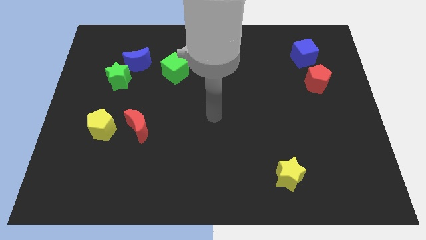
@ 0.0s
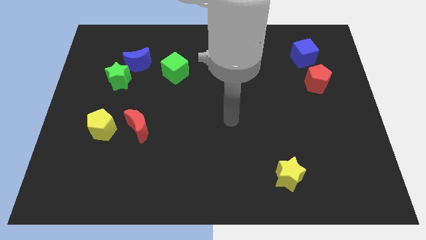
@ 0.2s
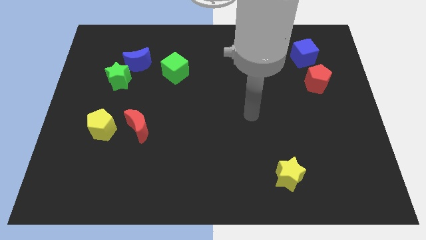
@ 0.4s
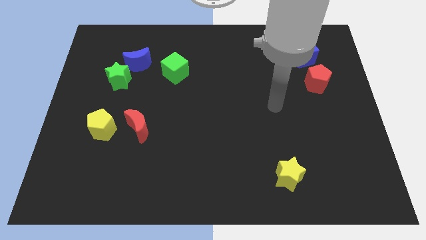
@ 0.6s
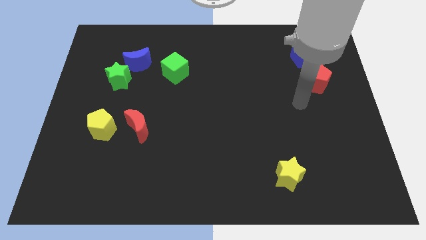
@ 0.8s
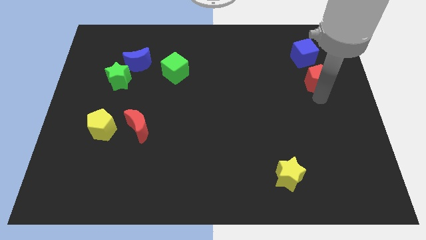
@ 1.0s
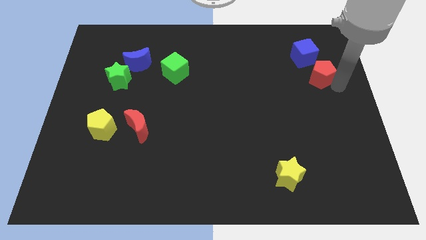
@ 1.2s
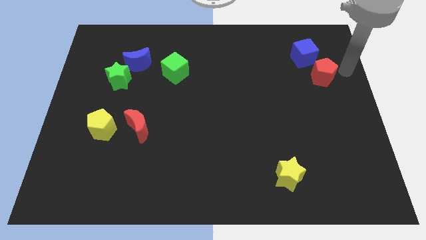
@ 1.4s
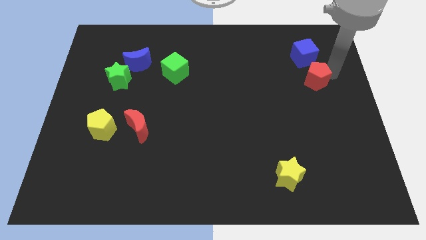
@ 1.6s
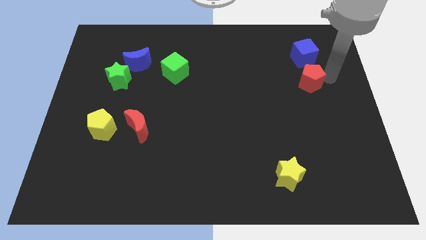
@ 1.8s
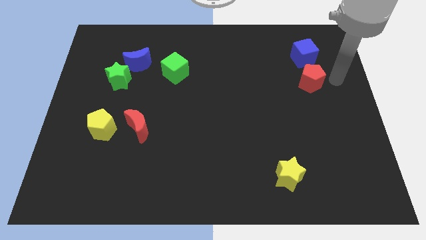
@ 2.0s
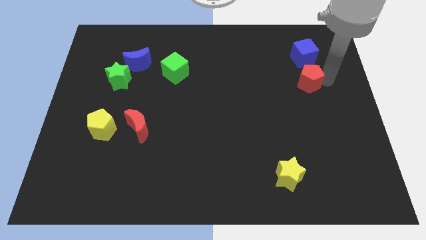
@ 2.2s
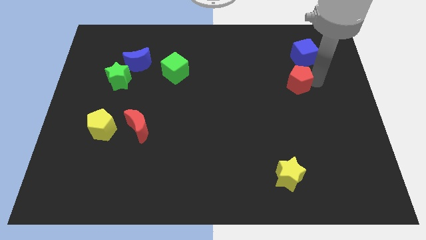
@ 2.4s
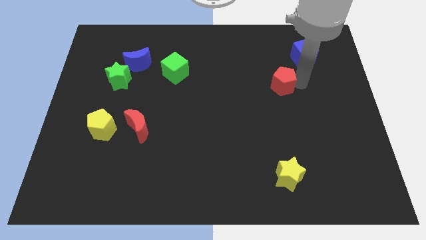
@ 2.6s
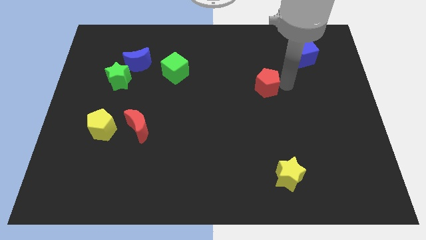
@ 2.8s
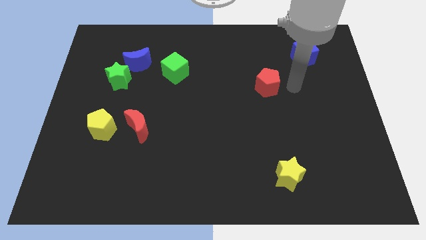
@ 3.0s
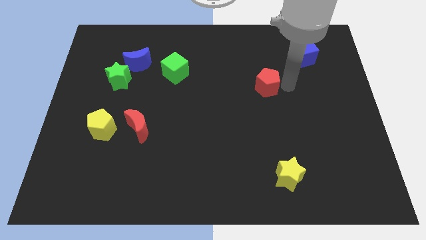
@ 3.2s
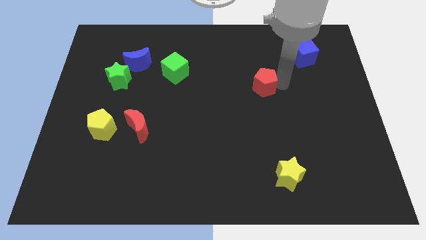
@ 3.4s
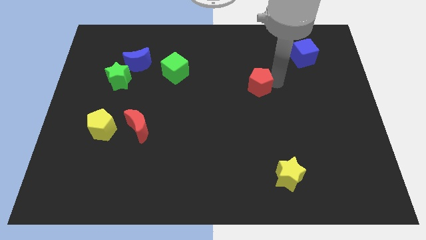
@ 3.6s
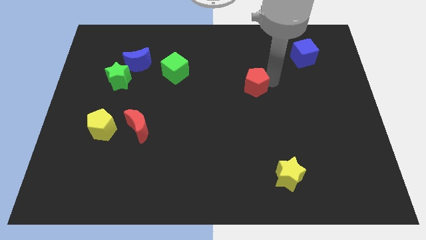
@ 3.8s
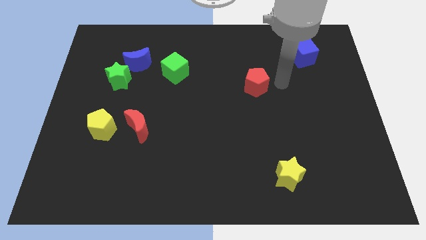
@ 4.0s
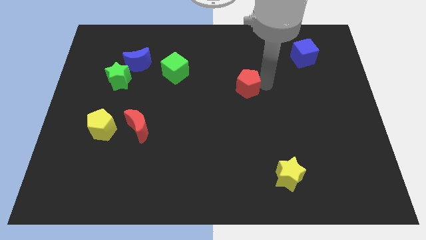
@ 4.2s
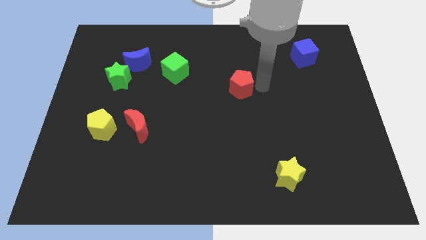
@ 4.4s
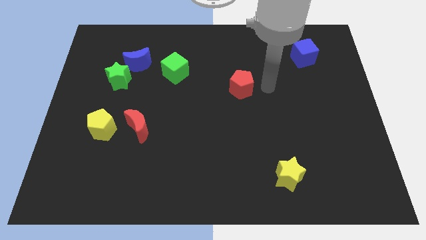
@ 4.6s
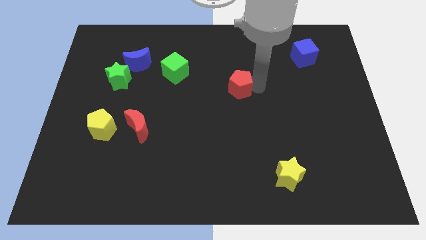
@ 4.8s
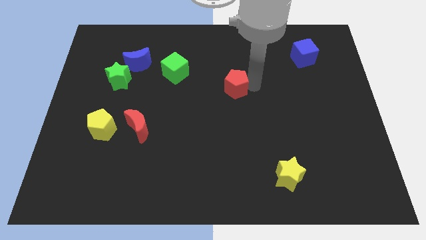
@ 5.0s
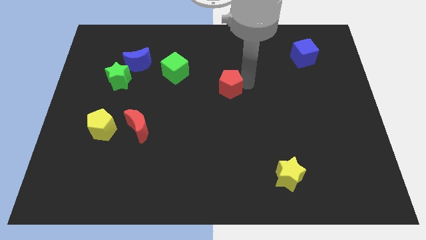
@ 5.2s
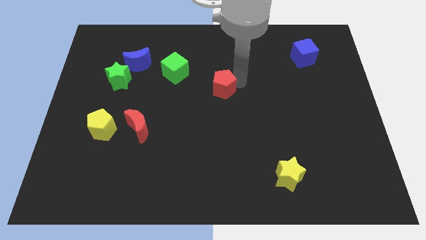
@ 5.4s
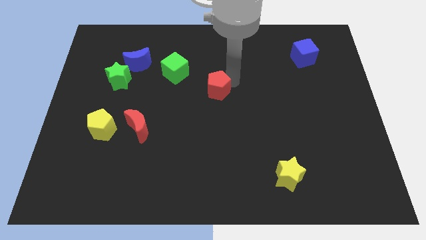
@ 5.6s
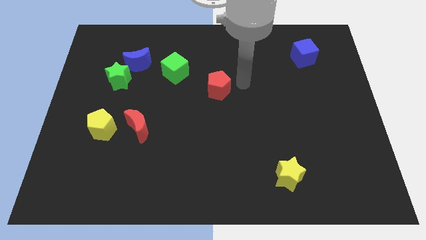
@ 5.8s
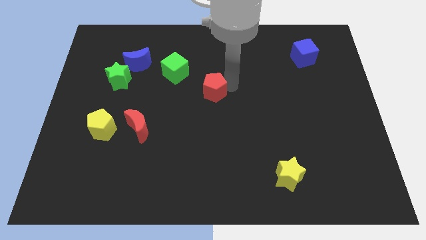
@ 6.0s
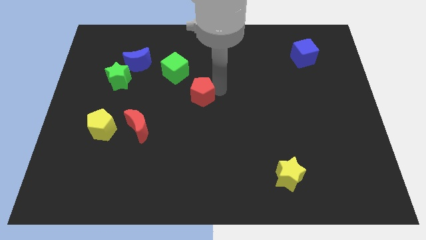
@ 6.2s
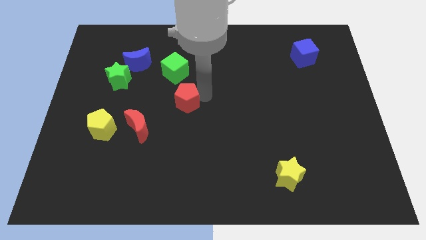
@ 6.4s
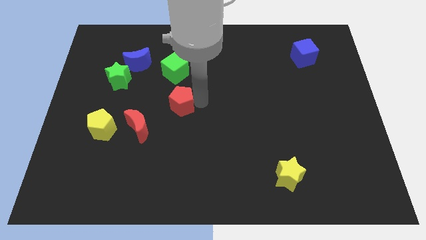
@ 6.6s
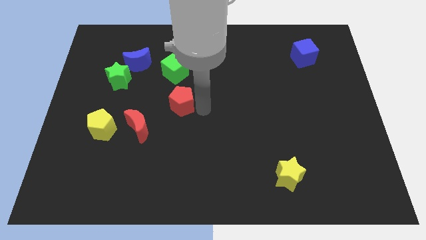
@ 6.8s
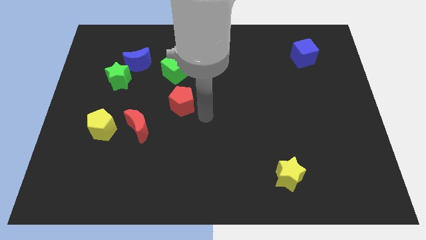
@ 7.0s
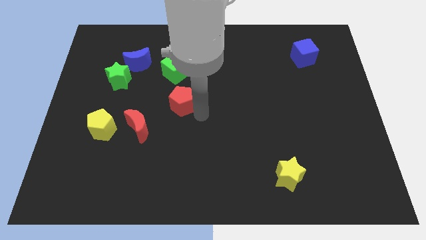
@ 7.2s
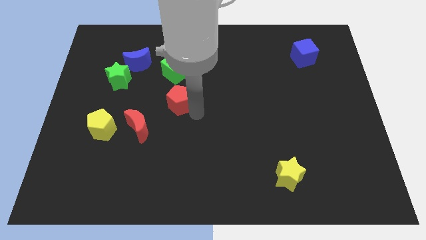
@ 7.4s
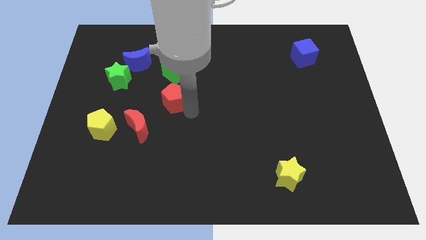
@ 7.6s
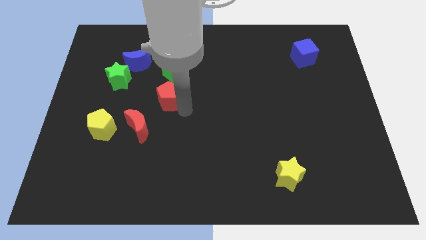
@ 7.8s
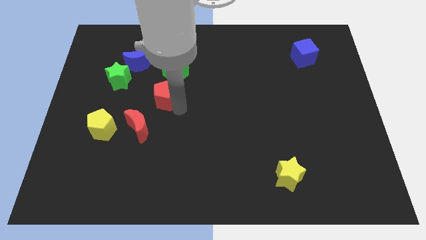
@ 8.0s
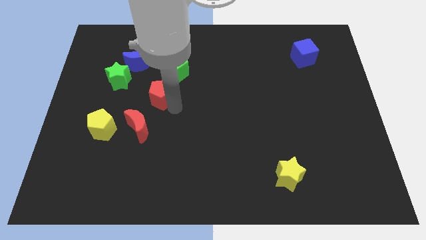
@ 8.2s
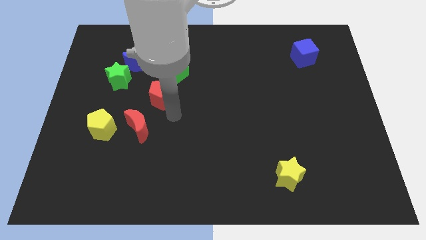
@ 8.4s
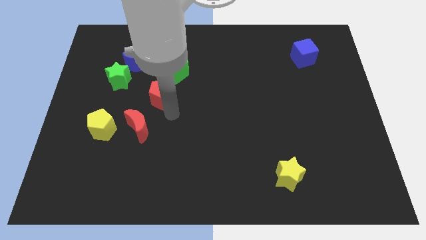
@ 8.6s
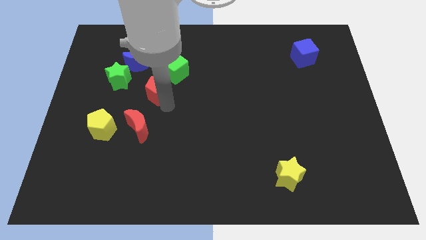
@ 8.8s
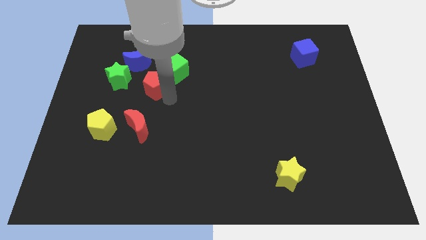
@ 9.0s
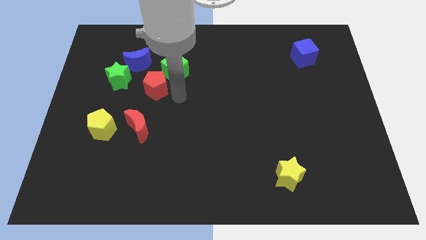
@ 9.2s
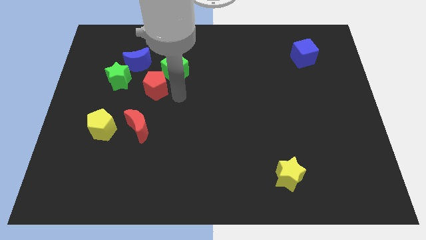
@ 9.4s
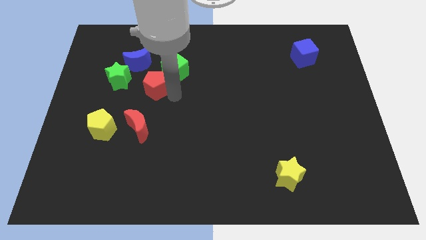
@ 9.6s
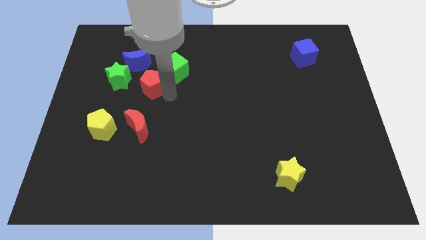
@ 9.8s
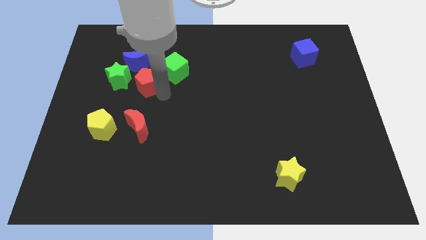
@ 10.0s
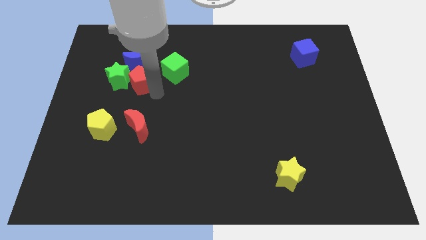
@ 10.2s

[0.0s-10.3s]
push the red pentagon towards the green star

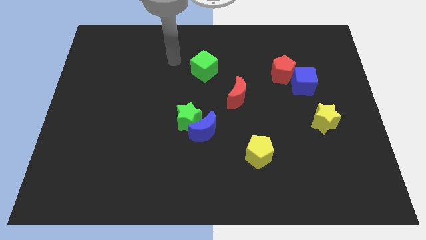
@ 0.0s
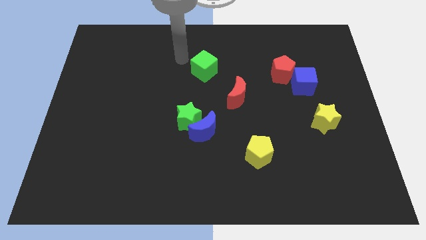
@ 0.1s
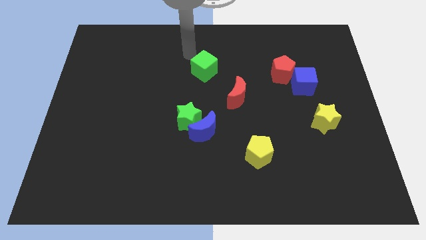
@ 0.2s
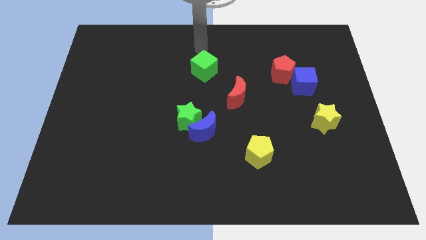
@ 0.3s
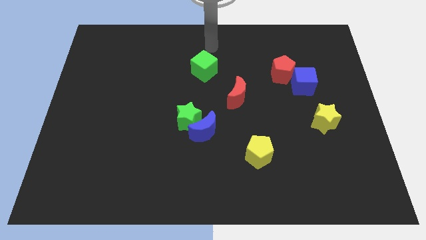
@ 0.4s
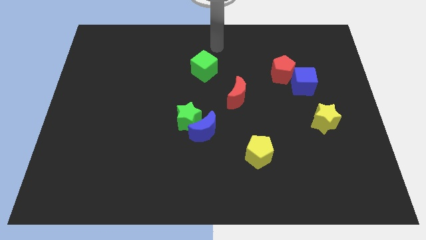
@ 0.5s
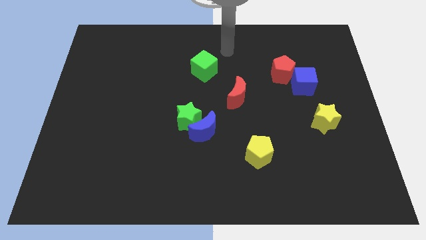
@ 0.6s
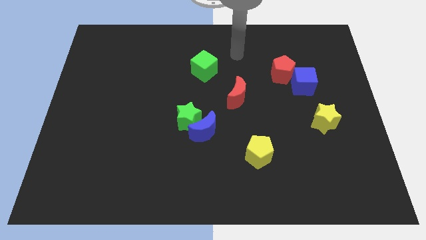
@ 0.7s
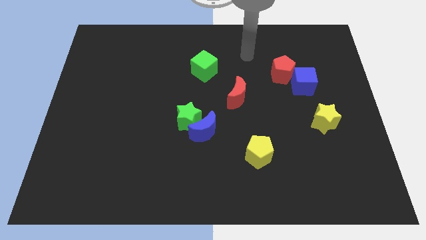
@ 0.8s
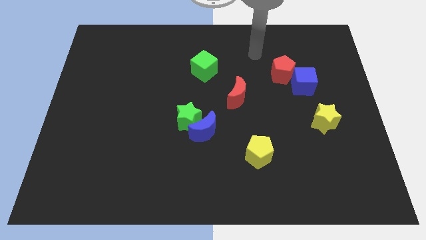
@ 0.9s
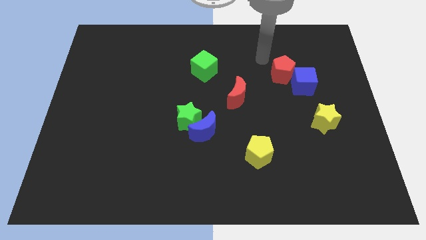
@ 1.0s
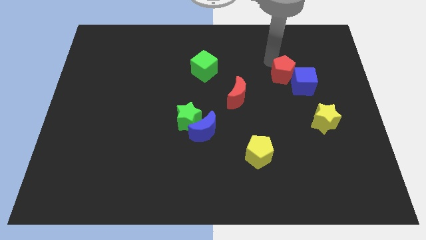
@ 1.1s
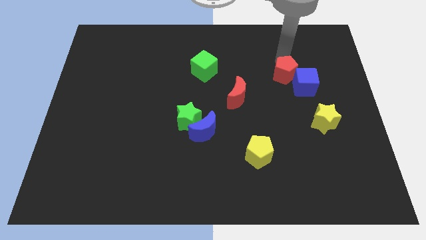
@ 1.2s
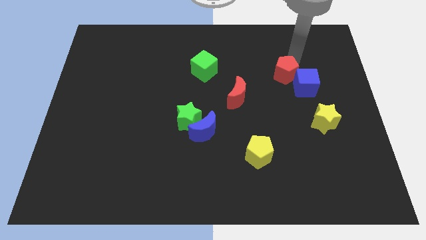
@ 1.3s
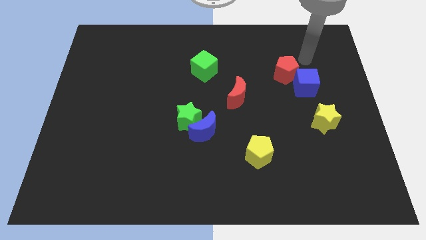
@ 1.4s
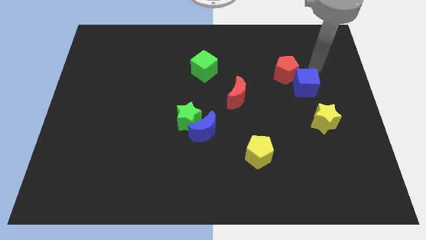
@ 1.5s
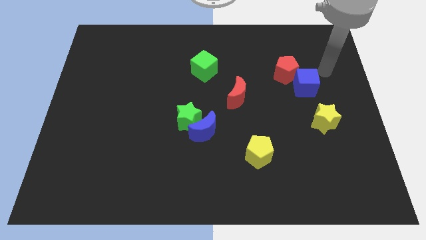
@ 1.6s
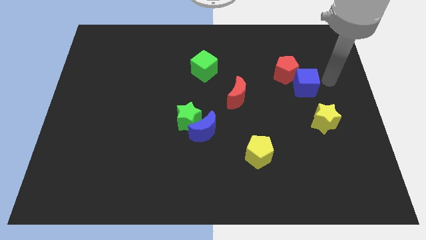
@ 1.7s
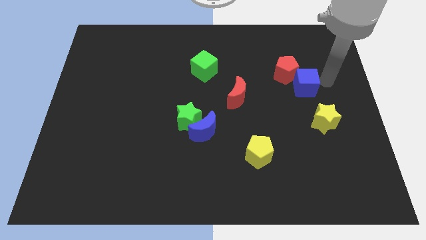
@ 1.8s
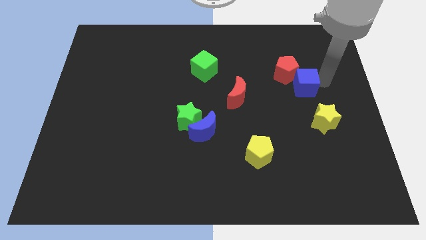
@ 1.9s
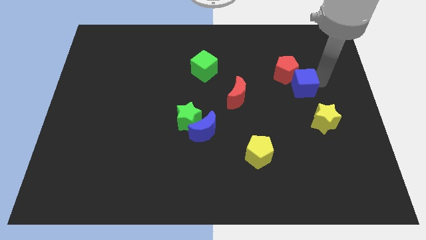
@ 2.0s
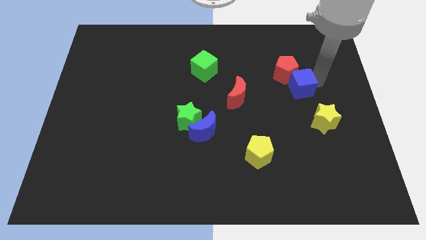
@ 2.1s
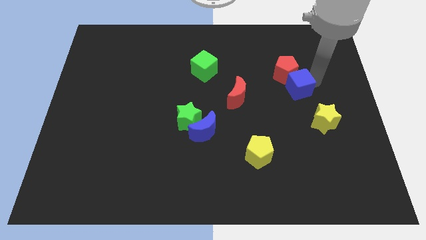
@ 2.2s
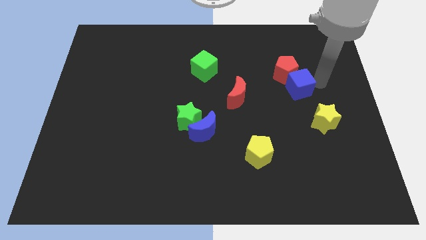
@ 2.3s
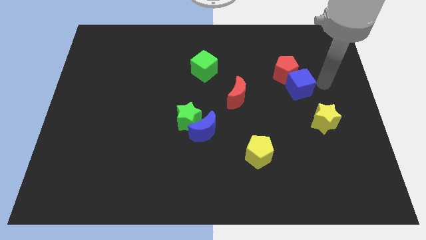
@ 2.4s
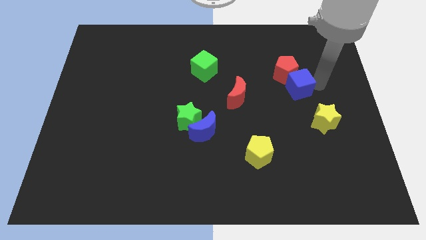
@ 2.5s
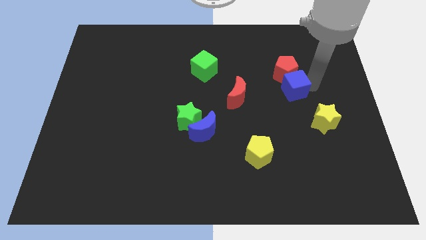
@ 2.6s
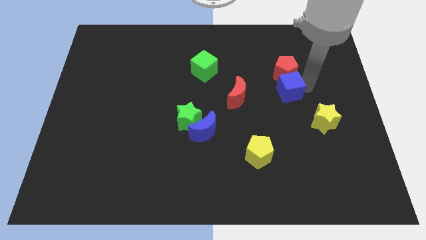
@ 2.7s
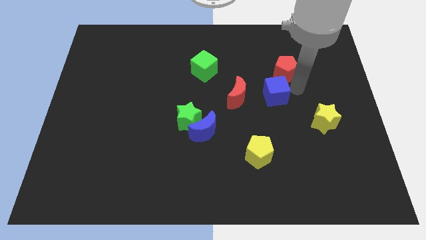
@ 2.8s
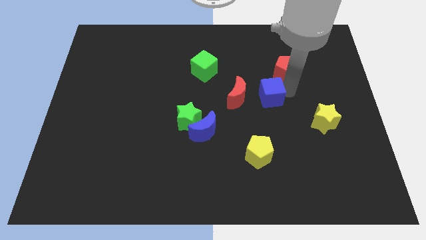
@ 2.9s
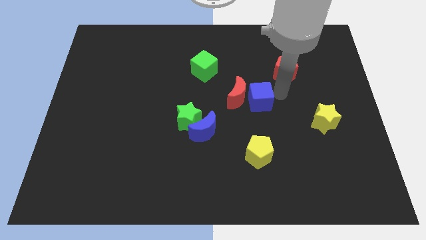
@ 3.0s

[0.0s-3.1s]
move the blue cube to the red moon
